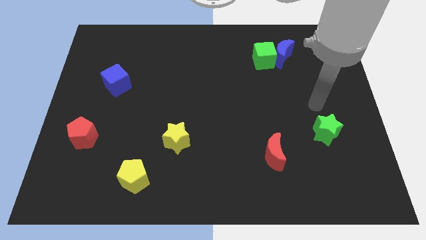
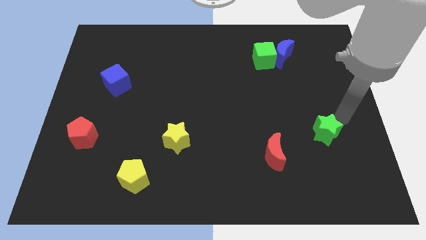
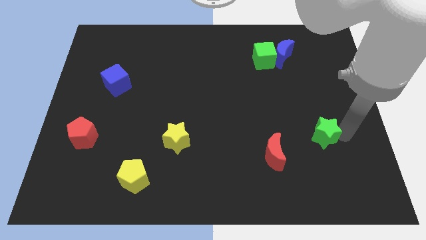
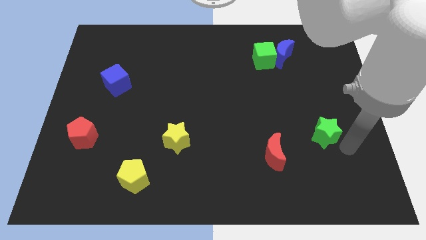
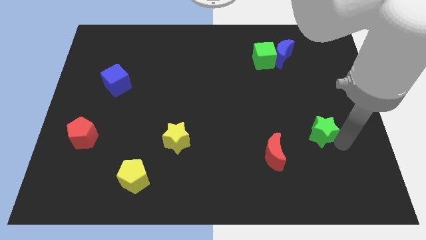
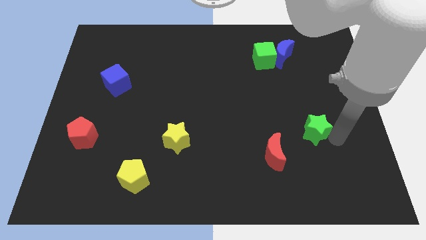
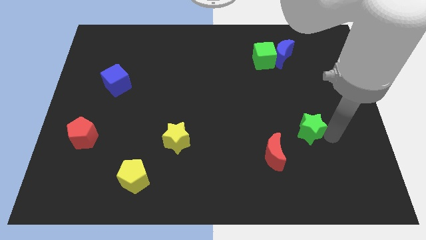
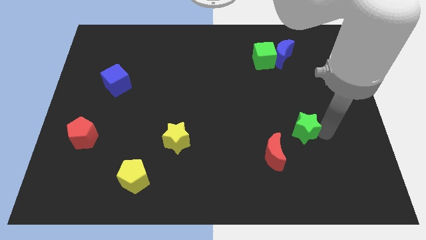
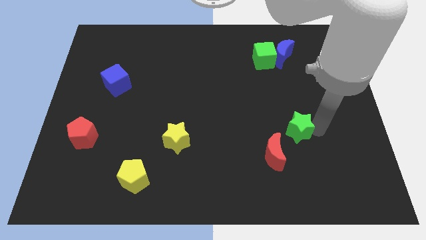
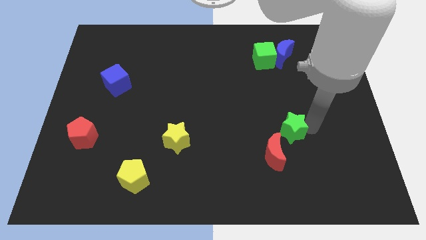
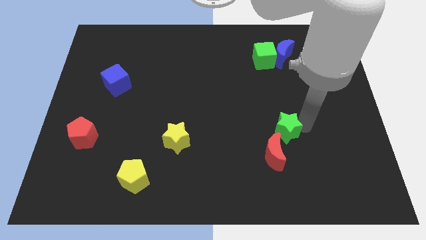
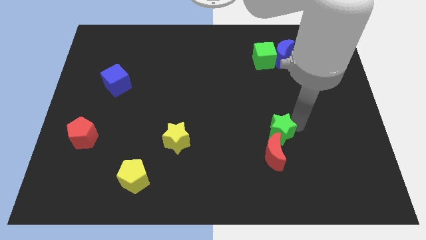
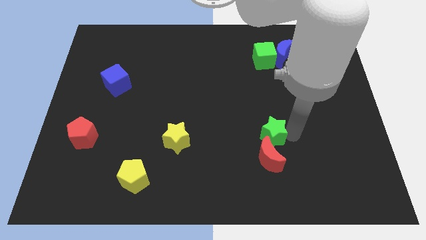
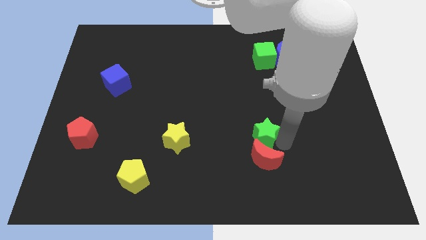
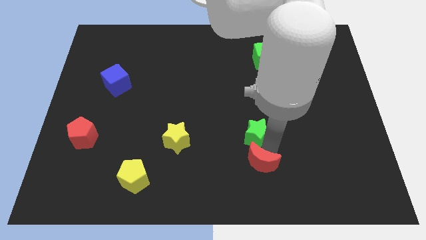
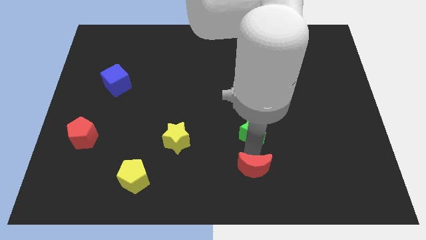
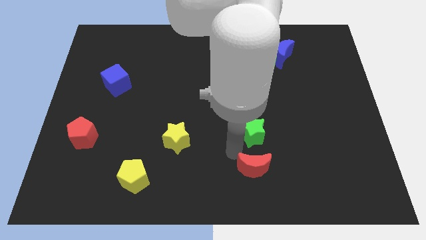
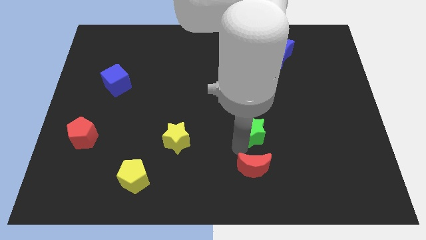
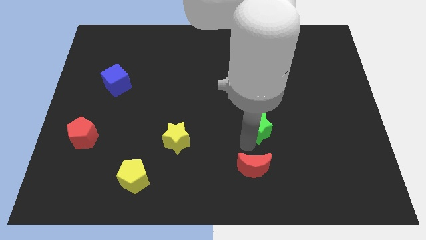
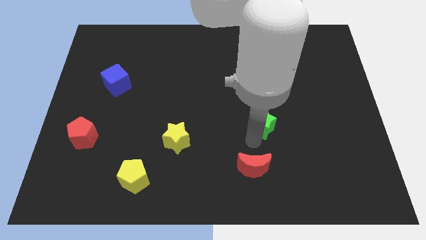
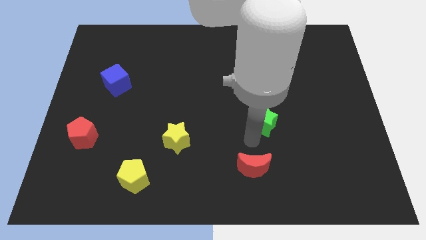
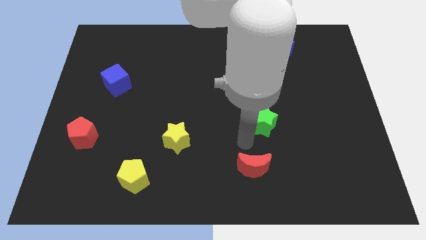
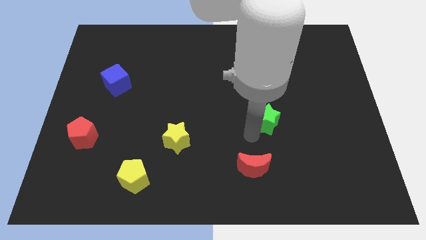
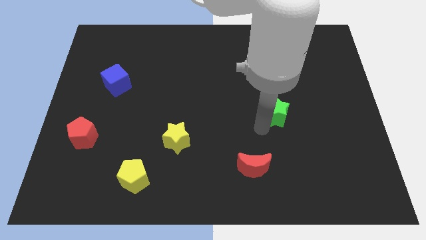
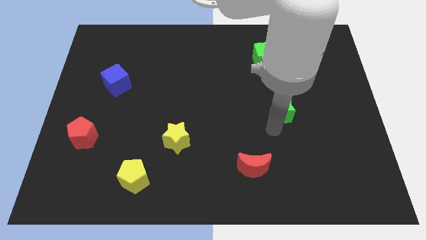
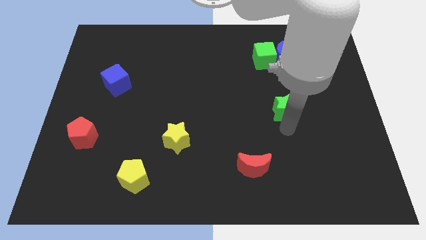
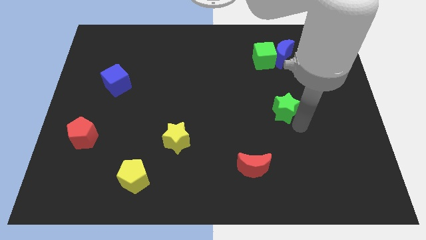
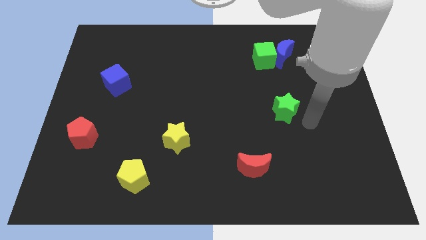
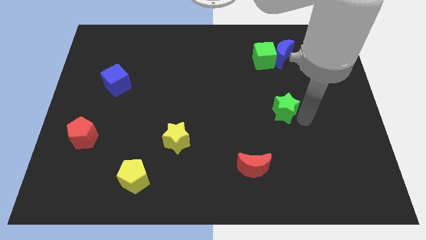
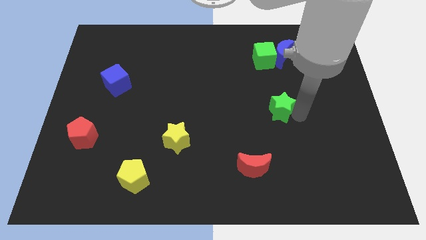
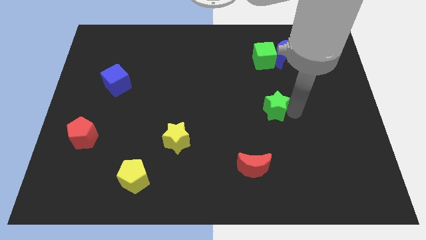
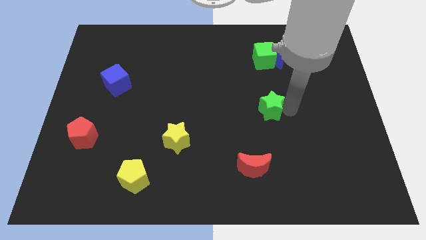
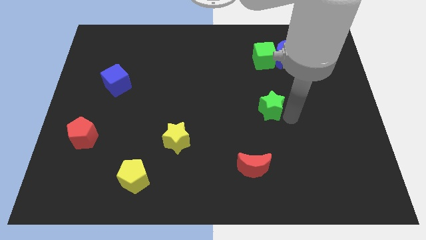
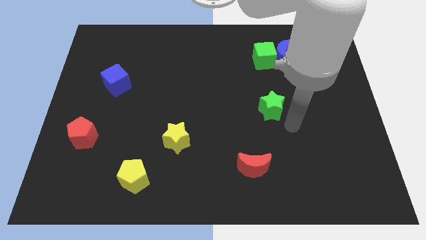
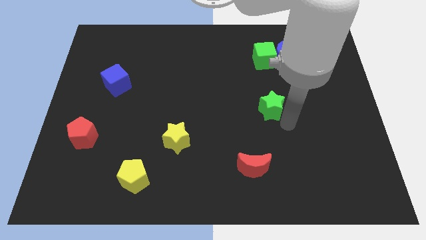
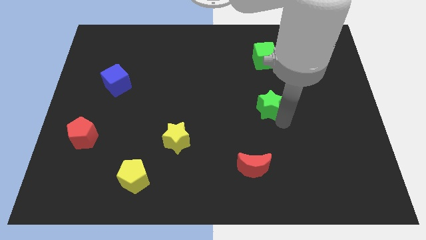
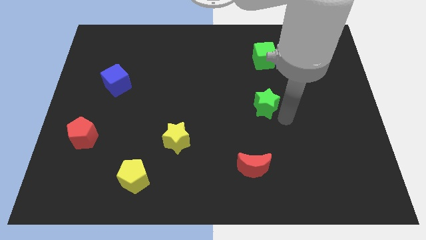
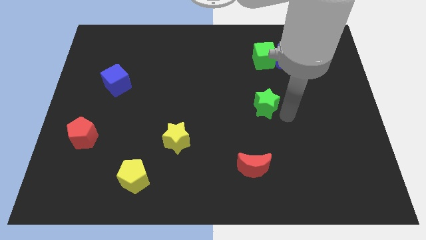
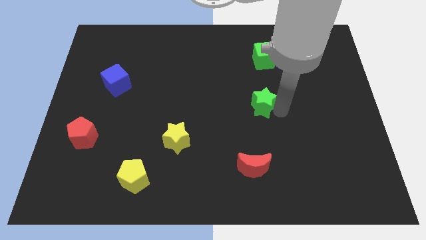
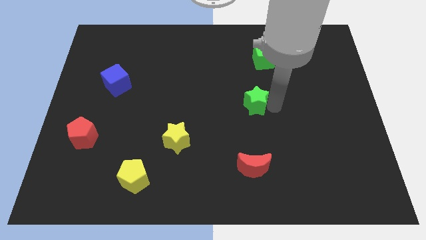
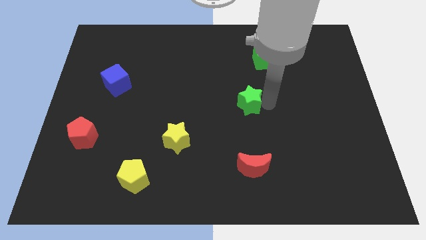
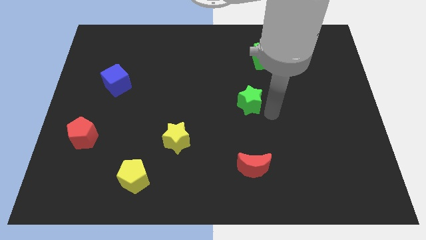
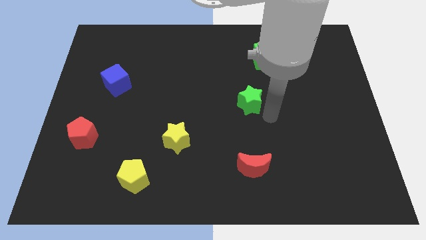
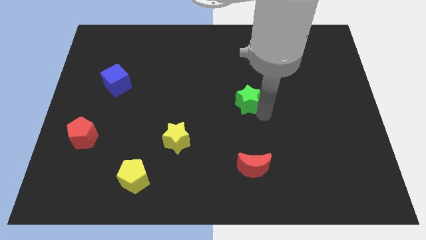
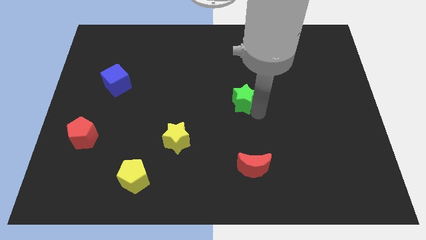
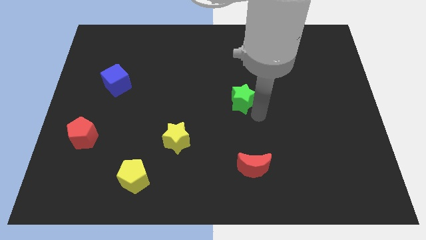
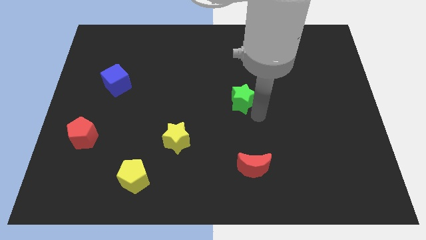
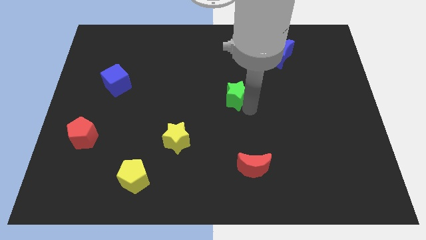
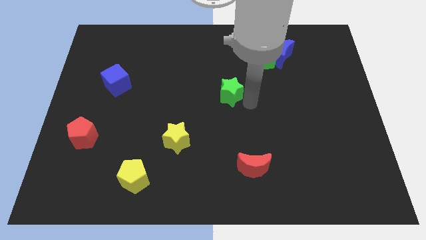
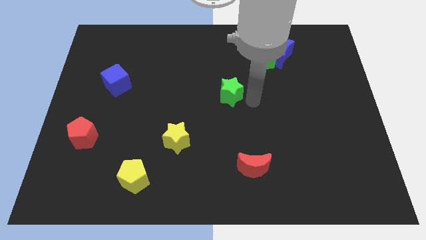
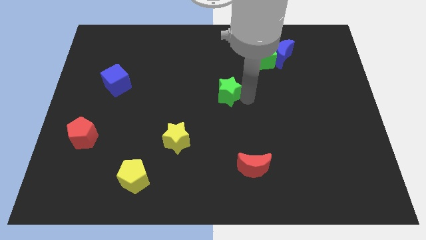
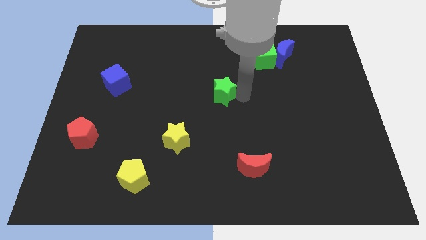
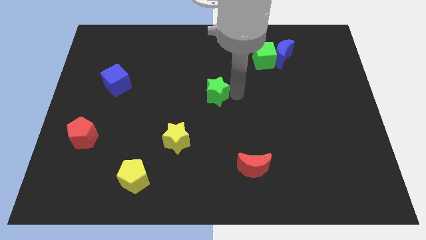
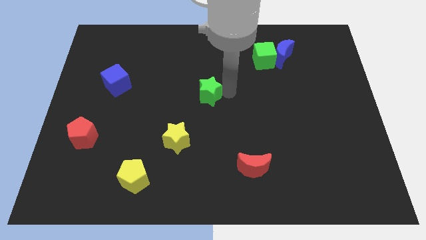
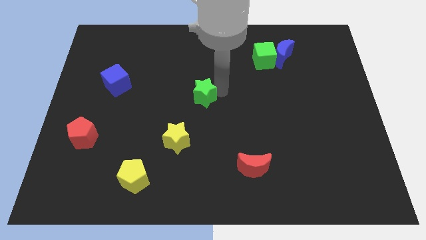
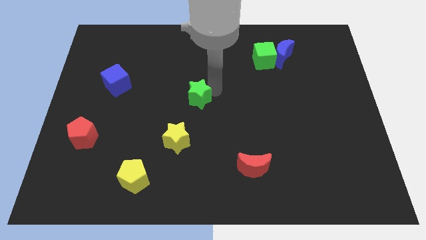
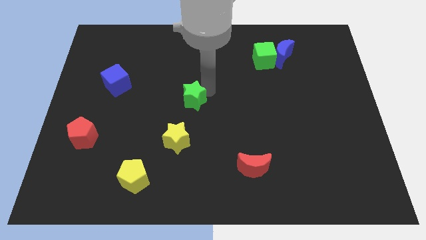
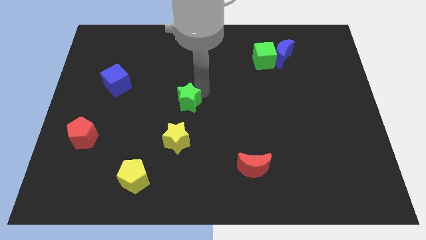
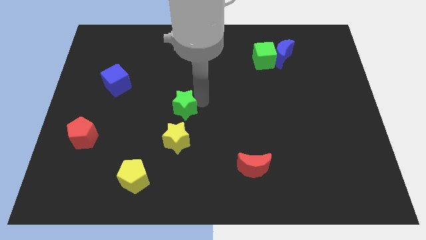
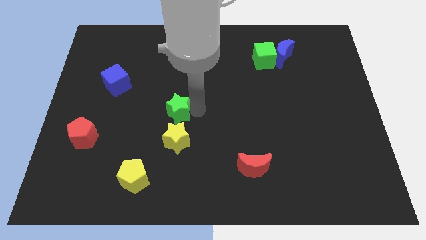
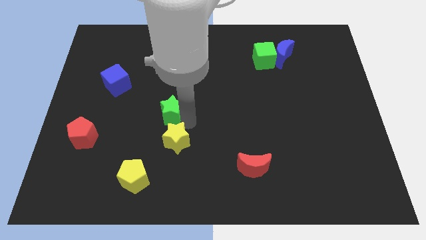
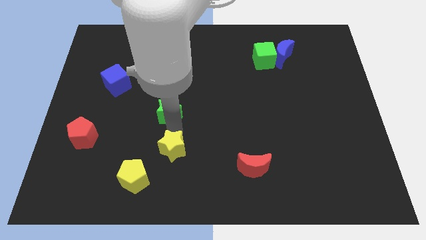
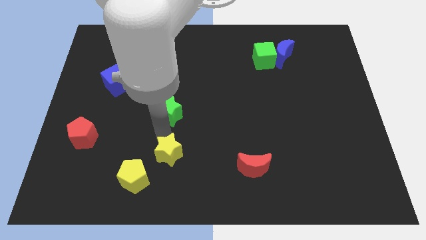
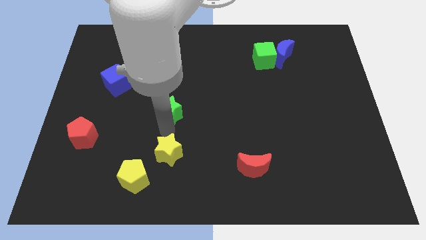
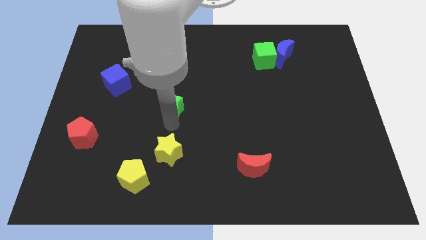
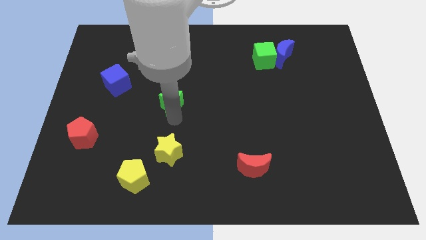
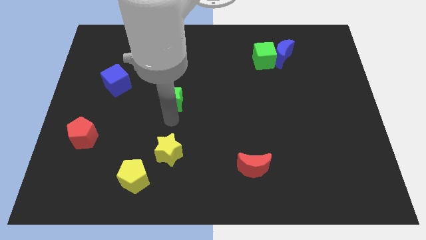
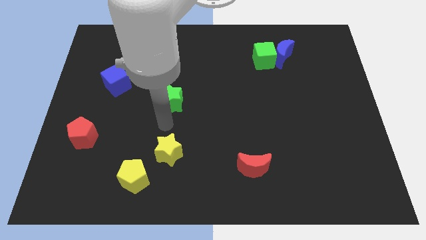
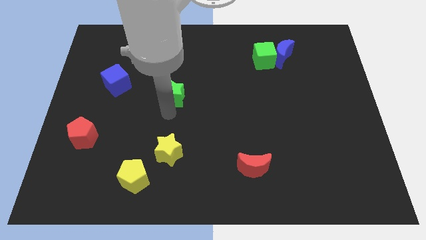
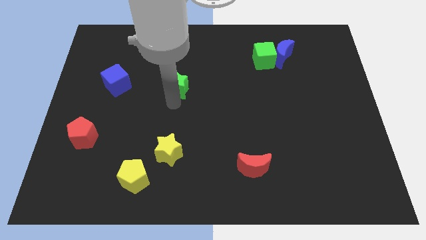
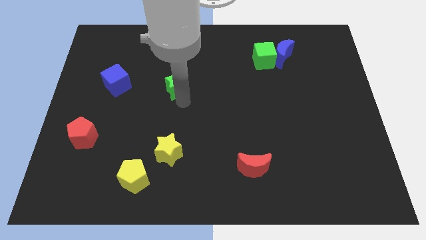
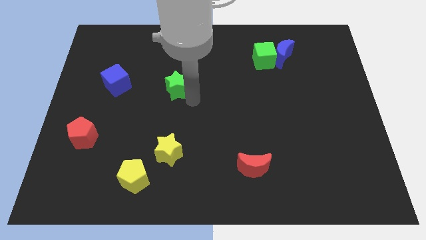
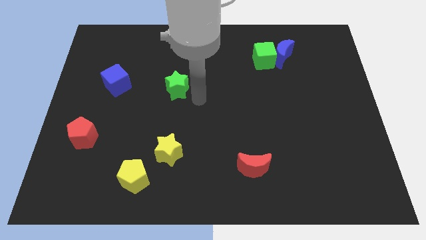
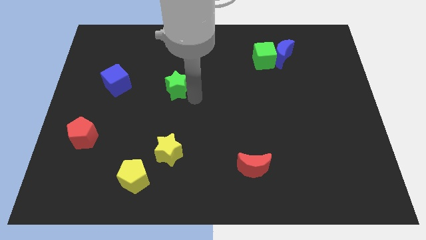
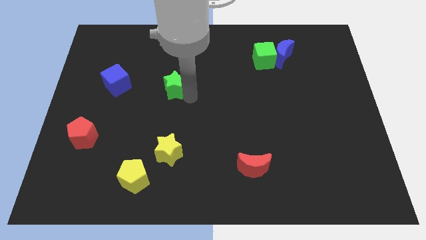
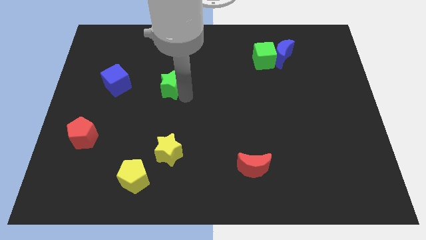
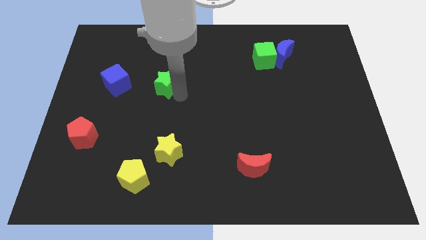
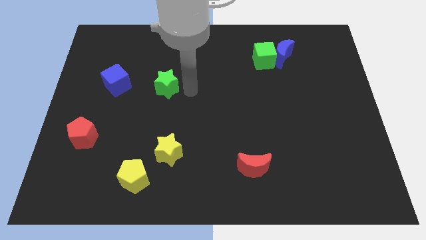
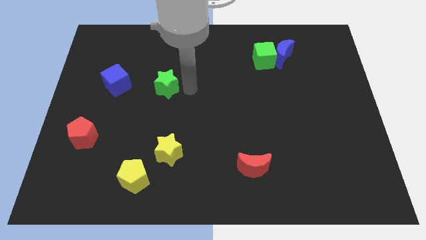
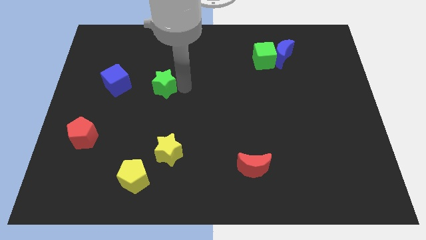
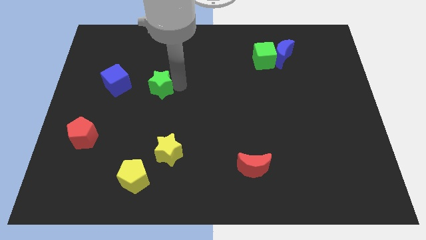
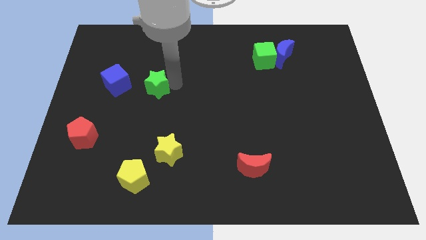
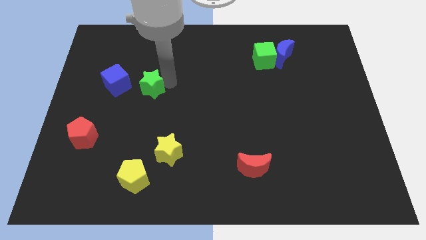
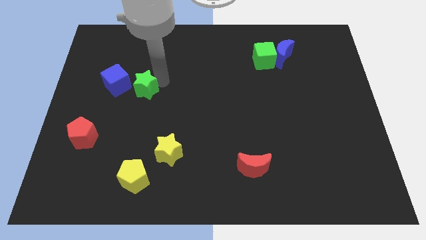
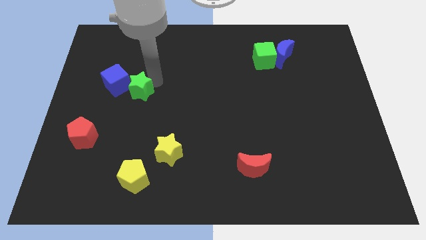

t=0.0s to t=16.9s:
slide the green star towards the blue cube
